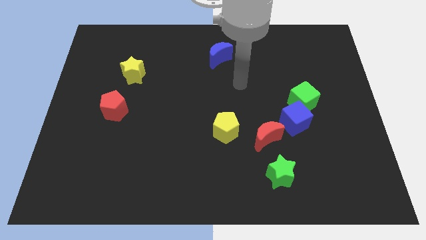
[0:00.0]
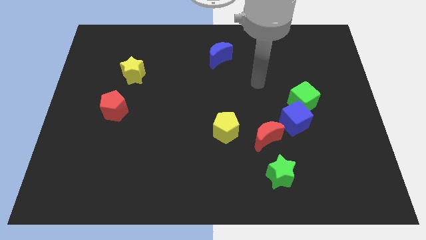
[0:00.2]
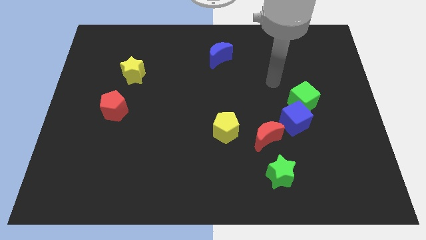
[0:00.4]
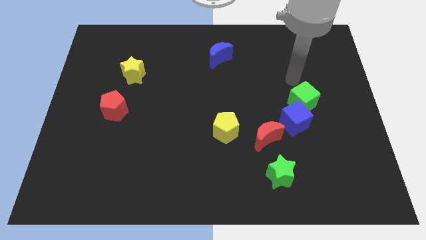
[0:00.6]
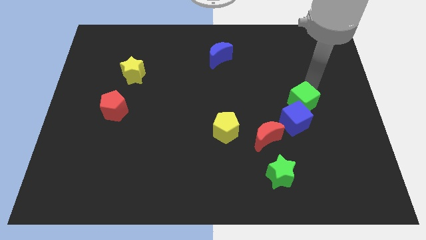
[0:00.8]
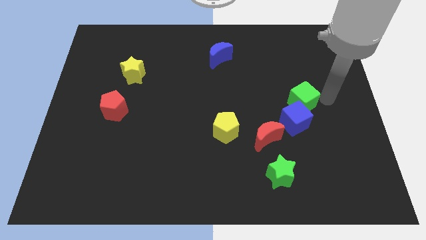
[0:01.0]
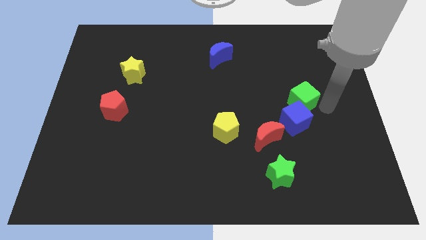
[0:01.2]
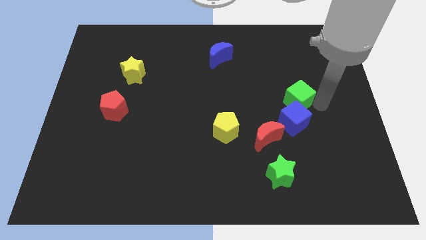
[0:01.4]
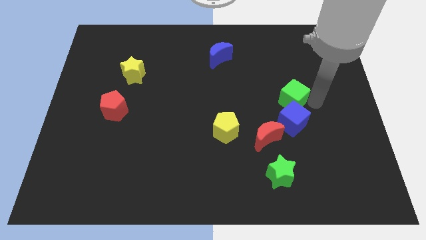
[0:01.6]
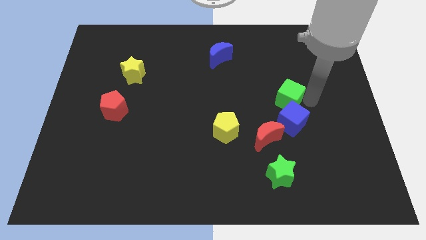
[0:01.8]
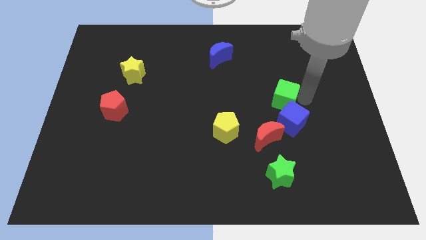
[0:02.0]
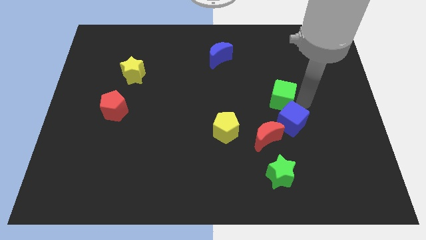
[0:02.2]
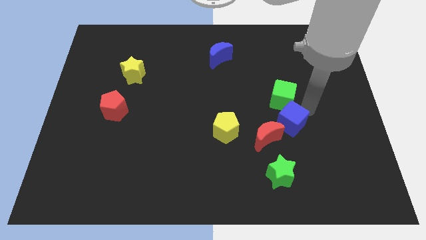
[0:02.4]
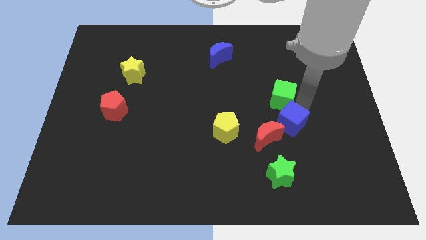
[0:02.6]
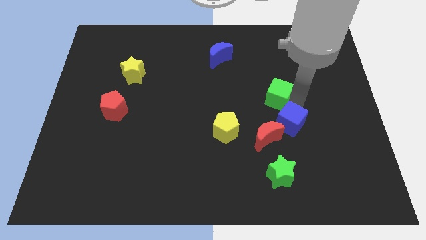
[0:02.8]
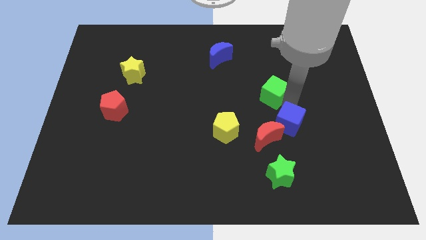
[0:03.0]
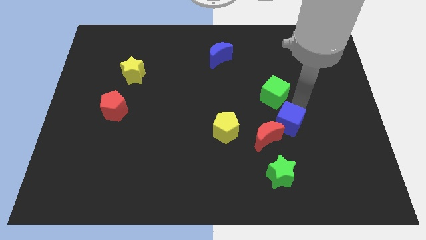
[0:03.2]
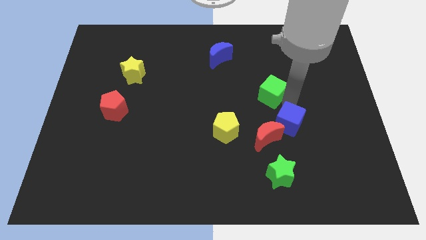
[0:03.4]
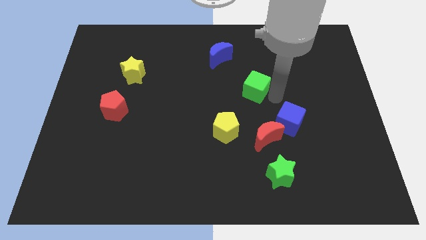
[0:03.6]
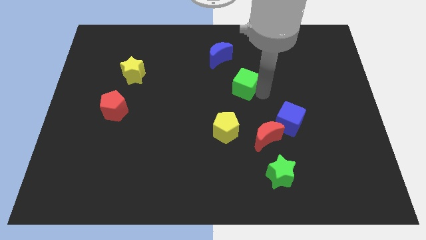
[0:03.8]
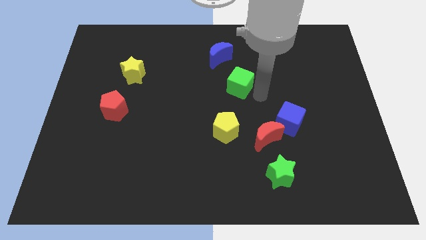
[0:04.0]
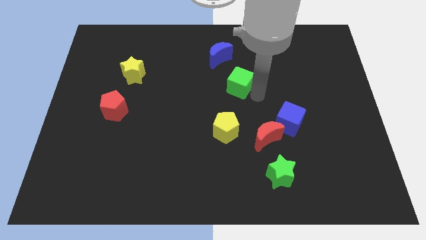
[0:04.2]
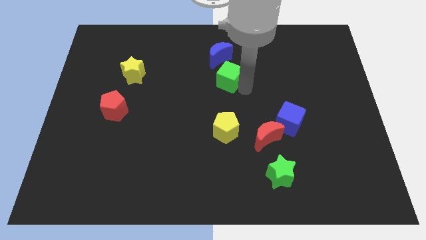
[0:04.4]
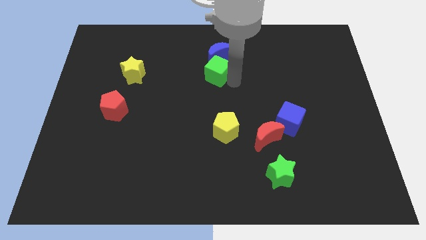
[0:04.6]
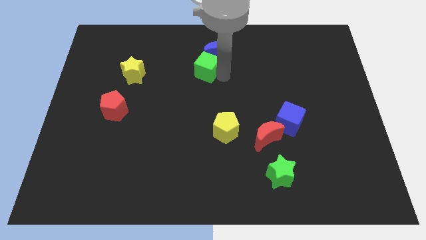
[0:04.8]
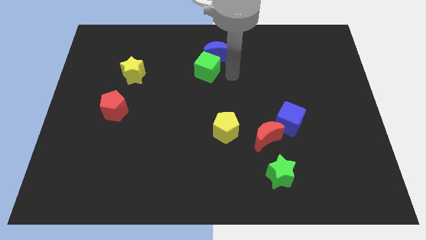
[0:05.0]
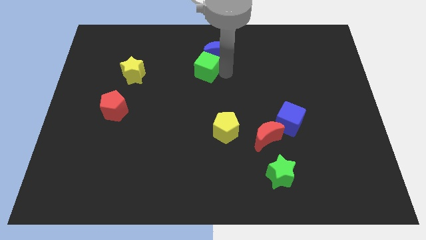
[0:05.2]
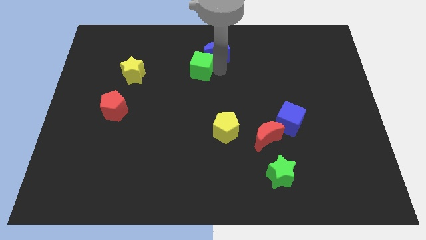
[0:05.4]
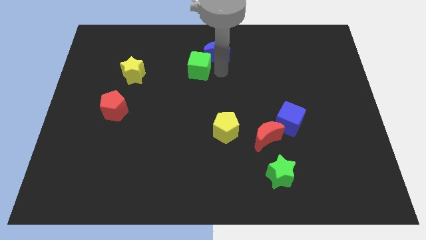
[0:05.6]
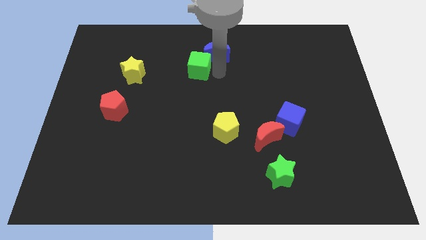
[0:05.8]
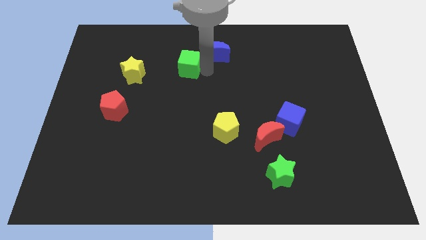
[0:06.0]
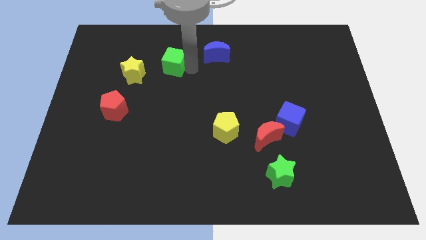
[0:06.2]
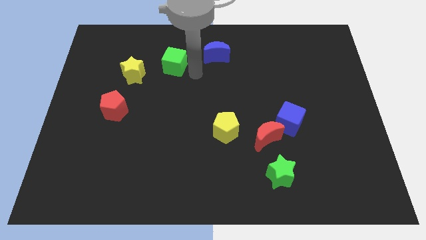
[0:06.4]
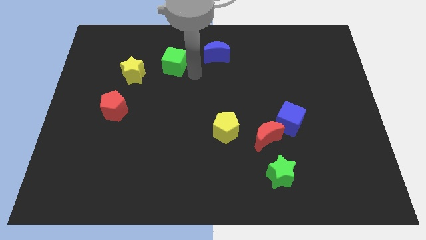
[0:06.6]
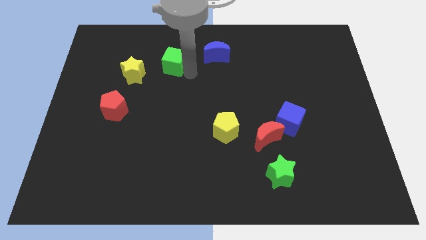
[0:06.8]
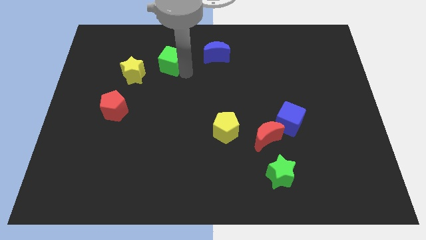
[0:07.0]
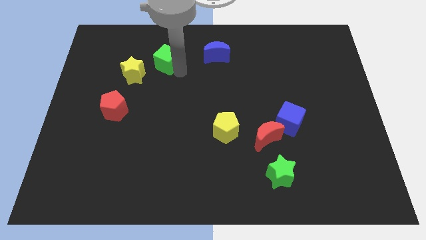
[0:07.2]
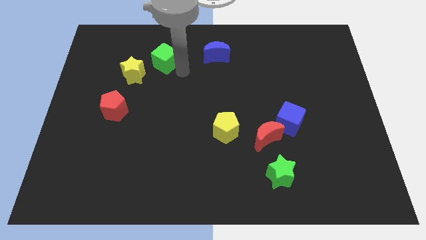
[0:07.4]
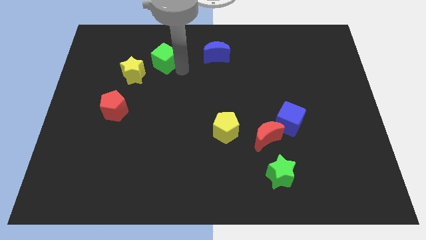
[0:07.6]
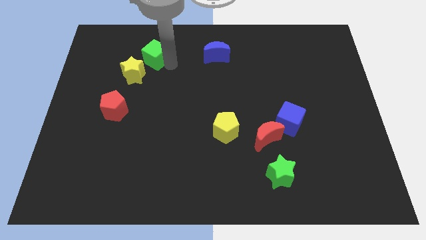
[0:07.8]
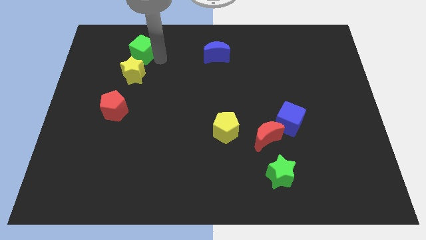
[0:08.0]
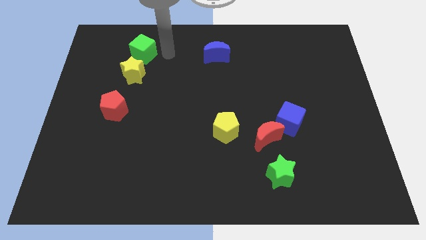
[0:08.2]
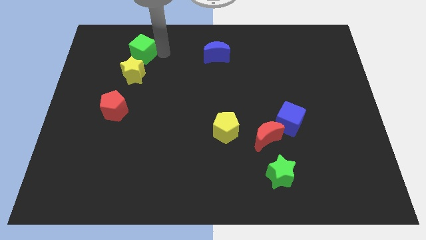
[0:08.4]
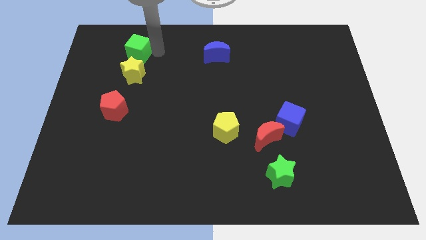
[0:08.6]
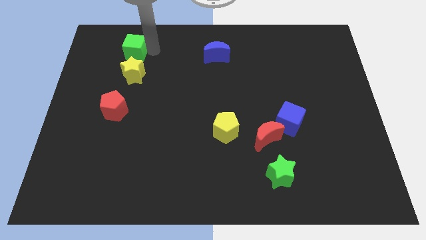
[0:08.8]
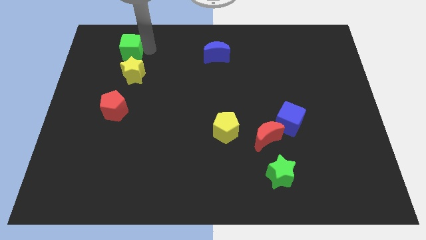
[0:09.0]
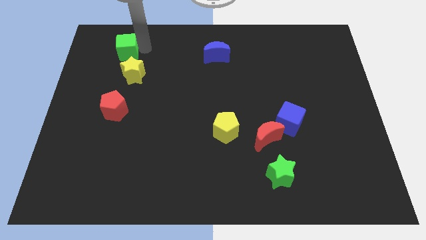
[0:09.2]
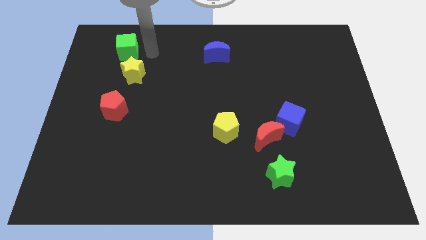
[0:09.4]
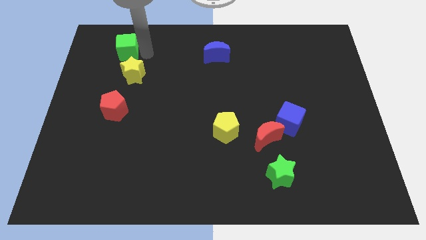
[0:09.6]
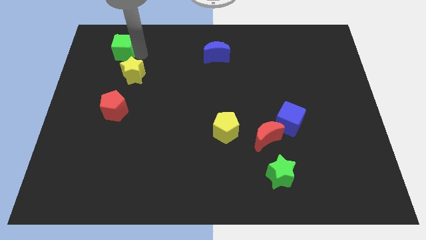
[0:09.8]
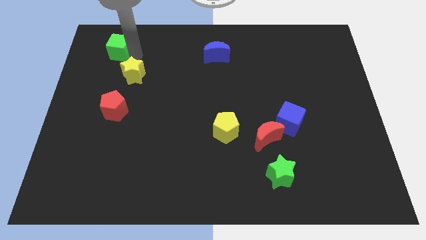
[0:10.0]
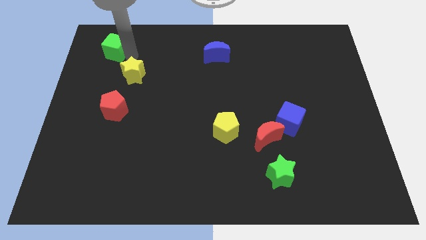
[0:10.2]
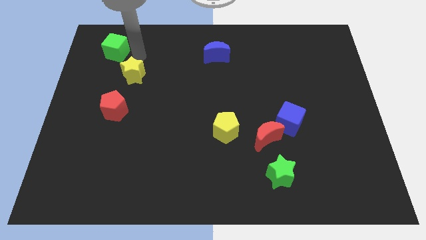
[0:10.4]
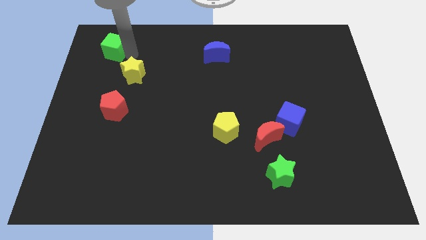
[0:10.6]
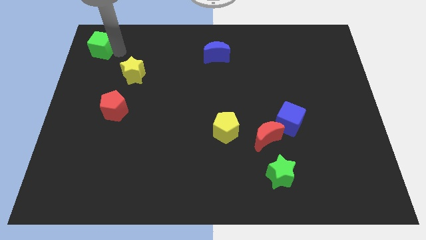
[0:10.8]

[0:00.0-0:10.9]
push the green cube to the upper left corner

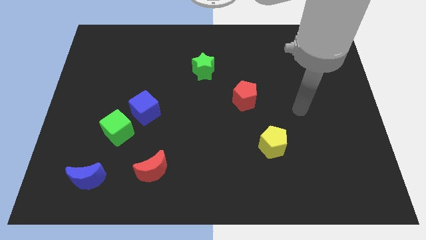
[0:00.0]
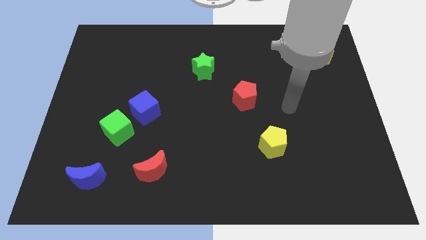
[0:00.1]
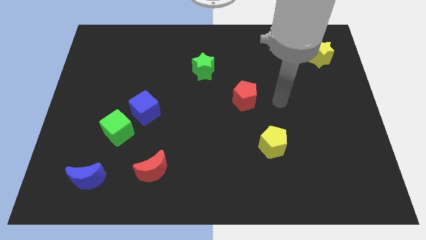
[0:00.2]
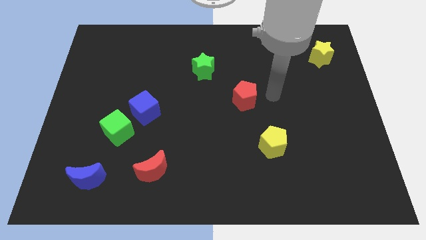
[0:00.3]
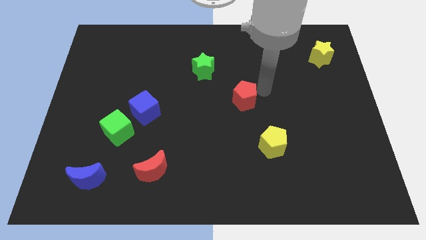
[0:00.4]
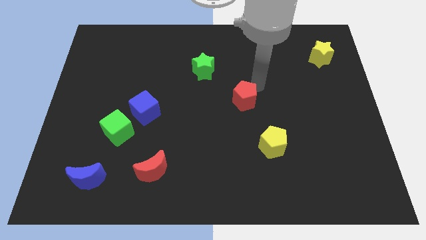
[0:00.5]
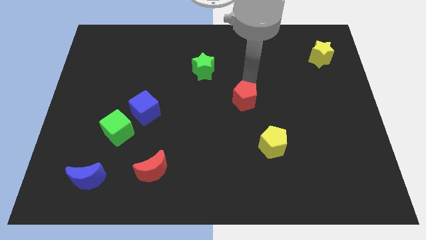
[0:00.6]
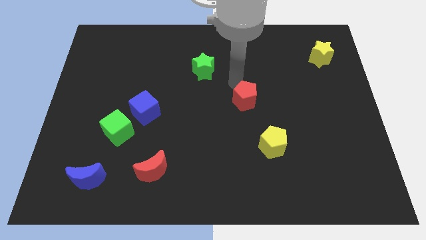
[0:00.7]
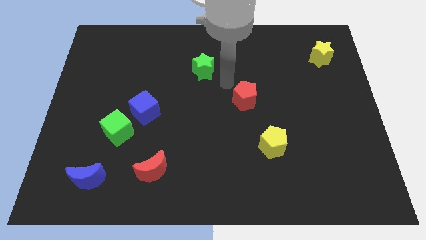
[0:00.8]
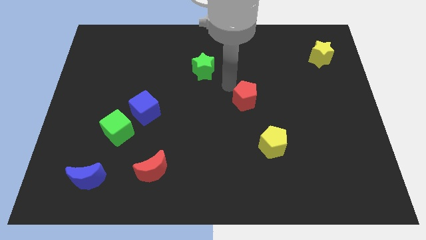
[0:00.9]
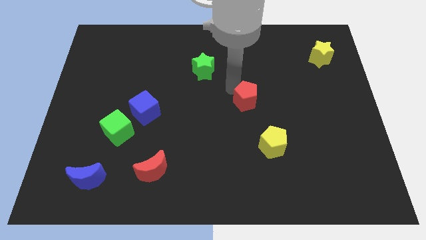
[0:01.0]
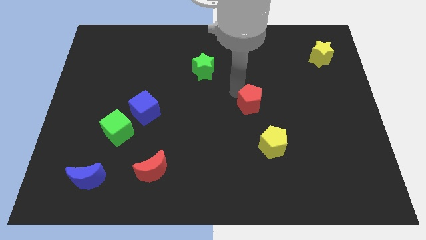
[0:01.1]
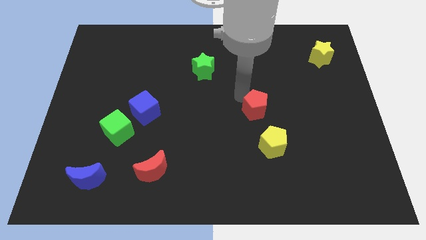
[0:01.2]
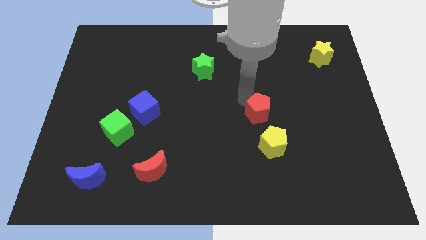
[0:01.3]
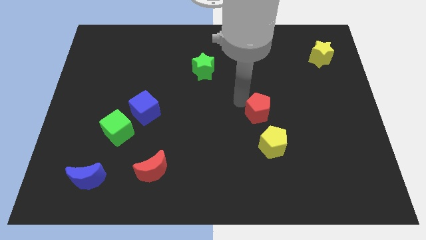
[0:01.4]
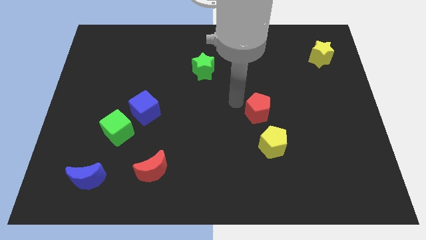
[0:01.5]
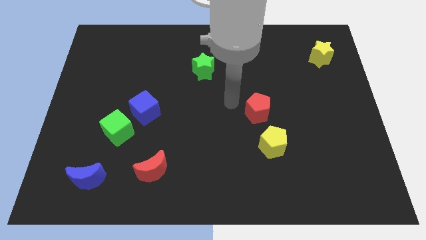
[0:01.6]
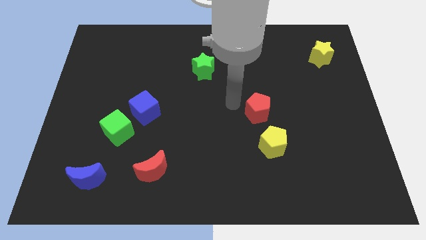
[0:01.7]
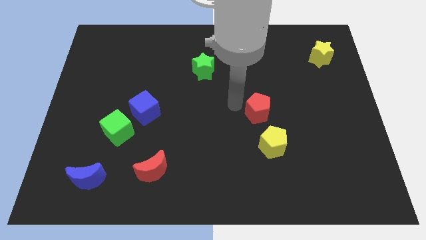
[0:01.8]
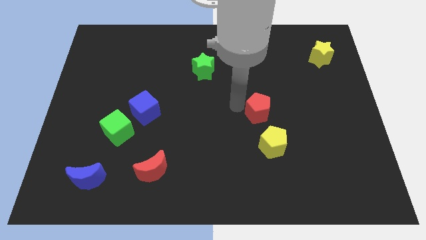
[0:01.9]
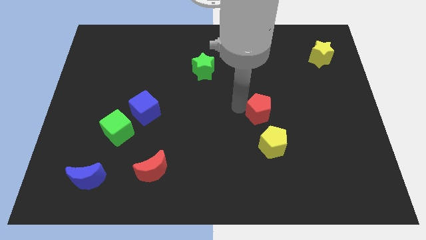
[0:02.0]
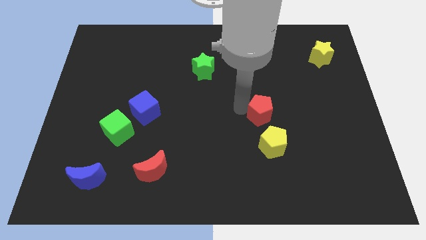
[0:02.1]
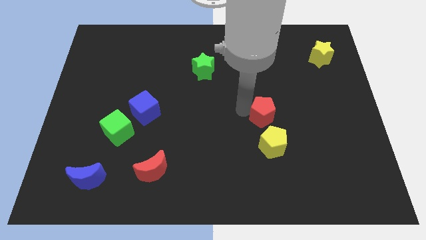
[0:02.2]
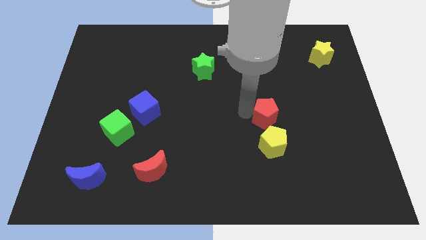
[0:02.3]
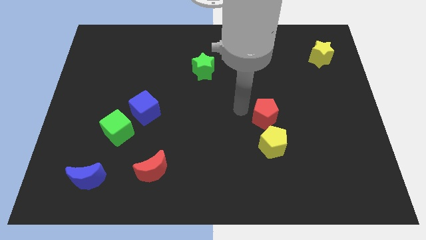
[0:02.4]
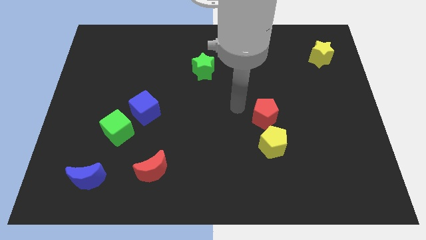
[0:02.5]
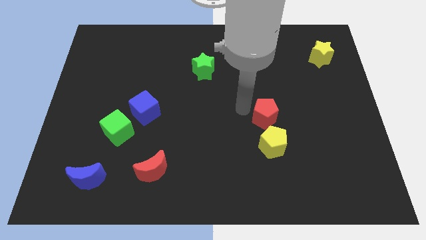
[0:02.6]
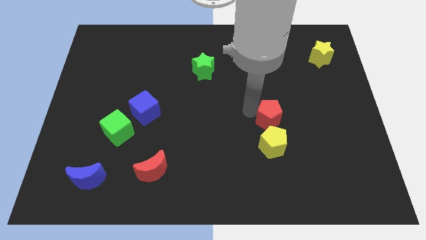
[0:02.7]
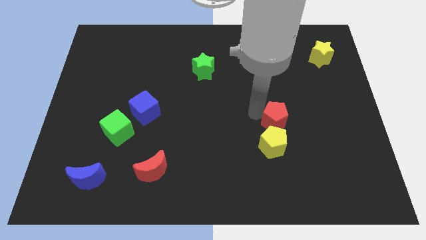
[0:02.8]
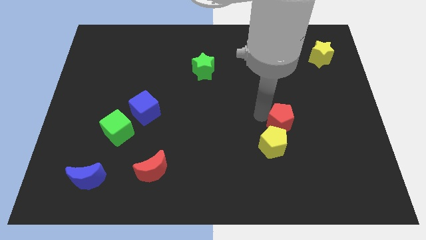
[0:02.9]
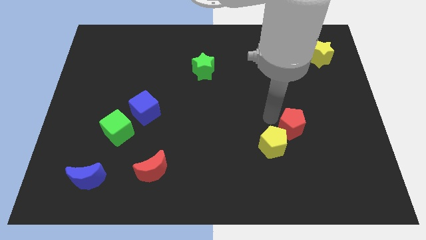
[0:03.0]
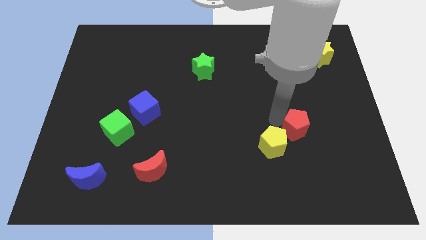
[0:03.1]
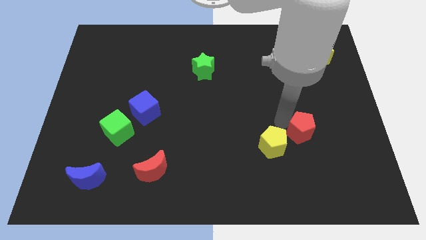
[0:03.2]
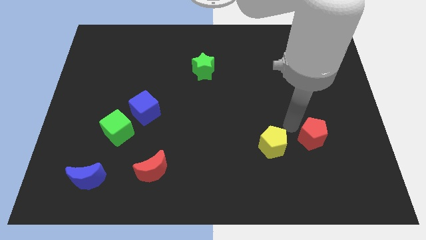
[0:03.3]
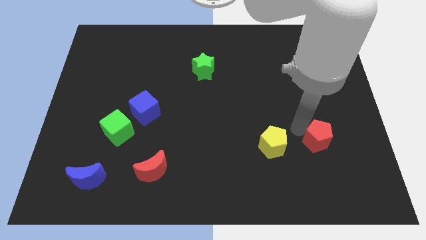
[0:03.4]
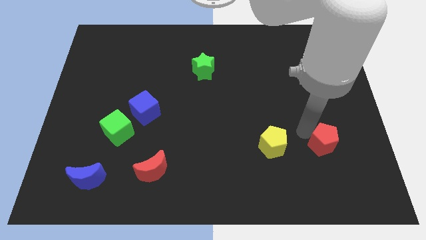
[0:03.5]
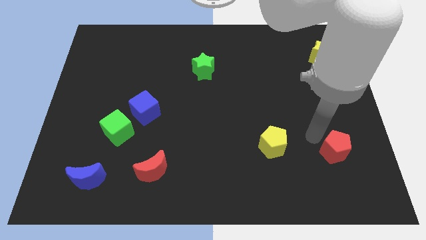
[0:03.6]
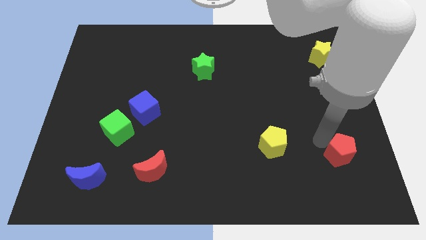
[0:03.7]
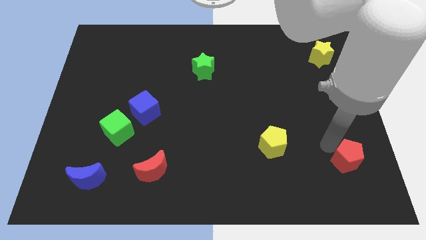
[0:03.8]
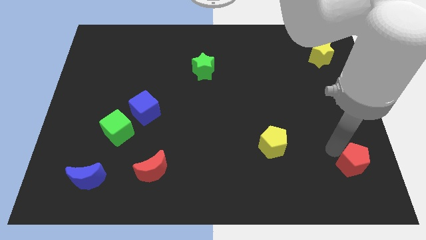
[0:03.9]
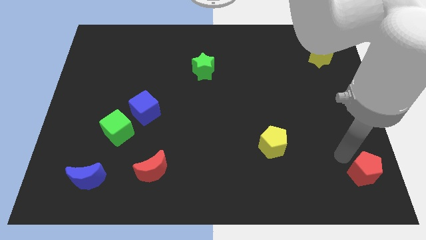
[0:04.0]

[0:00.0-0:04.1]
move the red pentagon to the bottom right
